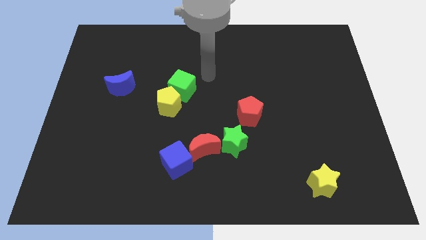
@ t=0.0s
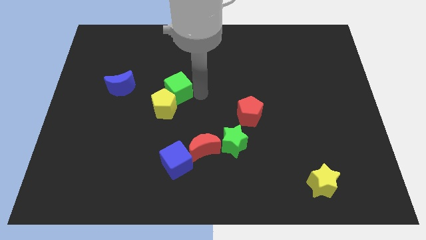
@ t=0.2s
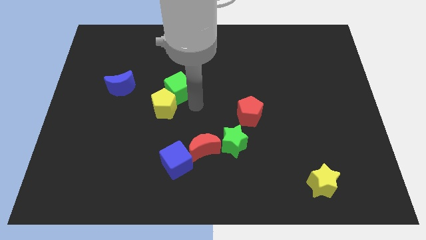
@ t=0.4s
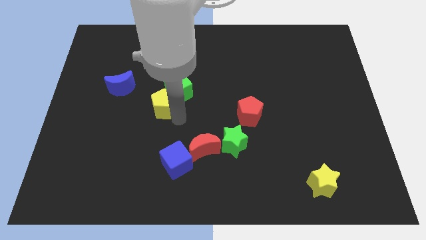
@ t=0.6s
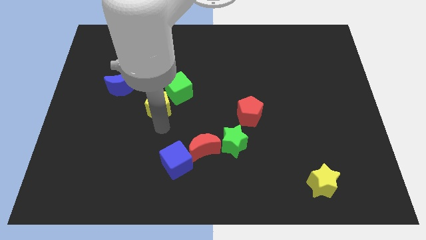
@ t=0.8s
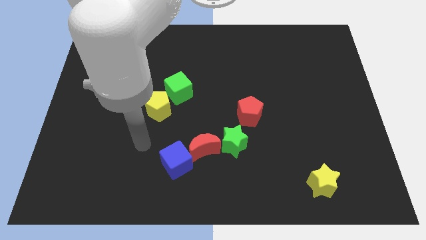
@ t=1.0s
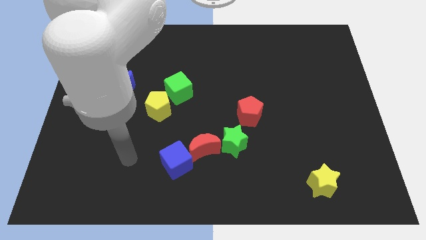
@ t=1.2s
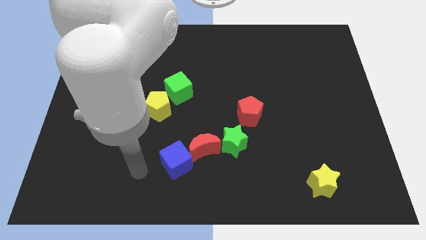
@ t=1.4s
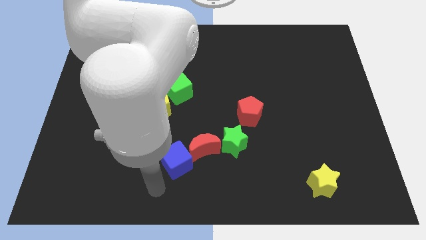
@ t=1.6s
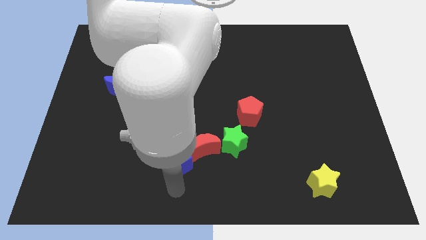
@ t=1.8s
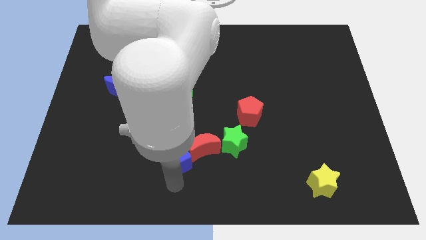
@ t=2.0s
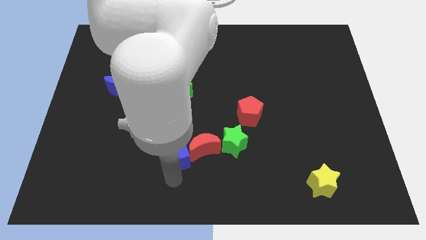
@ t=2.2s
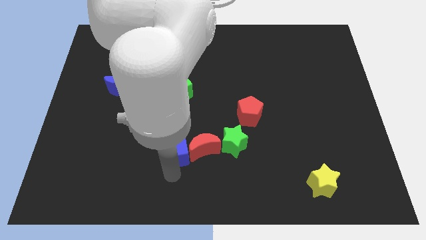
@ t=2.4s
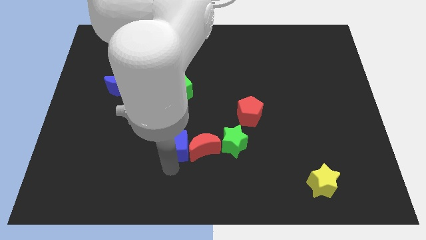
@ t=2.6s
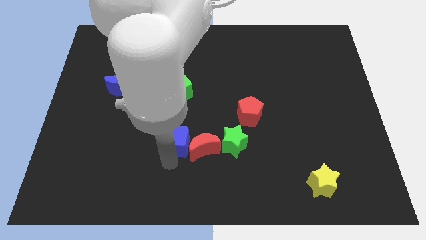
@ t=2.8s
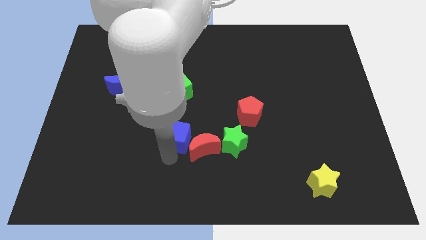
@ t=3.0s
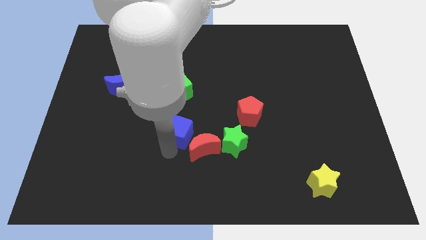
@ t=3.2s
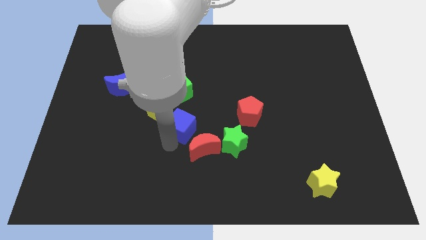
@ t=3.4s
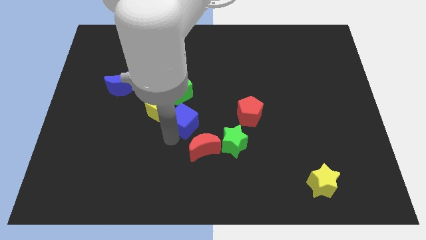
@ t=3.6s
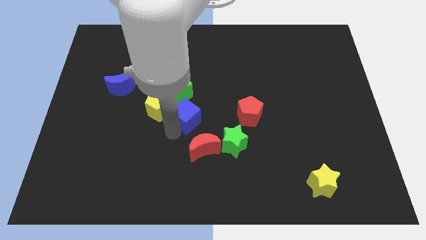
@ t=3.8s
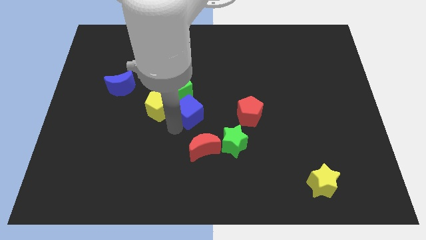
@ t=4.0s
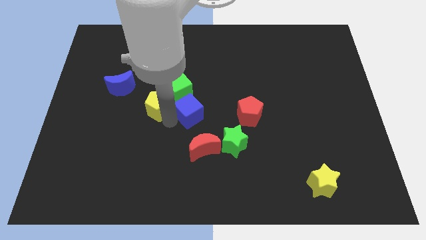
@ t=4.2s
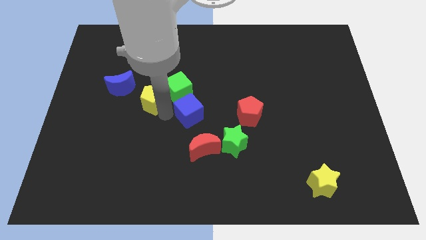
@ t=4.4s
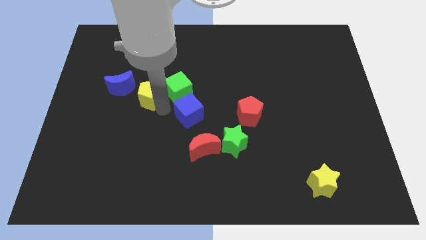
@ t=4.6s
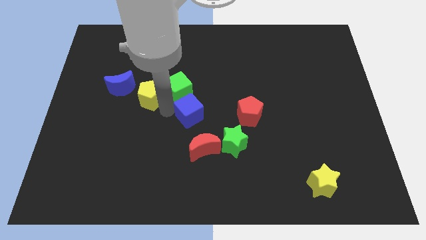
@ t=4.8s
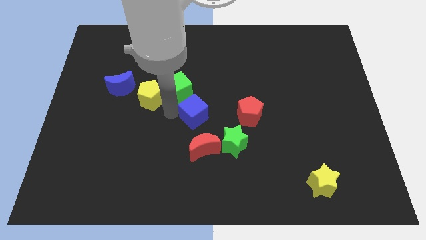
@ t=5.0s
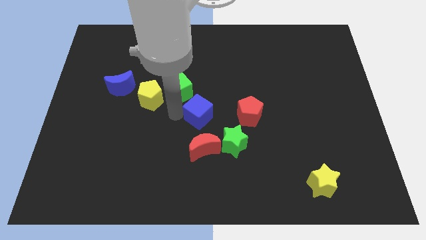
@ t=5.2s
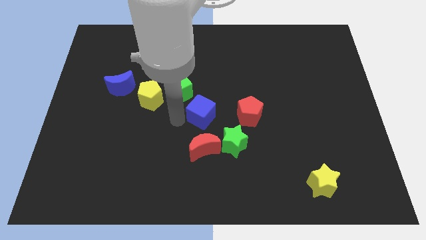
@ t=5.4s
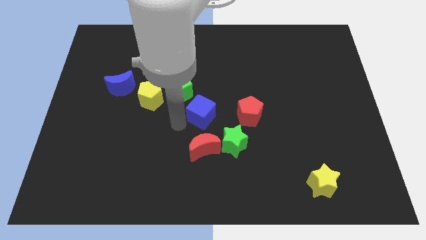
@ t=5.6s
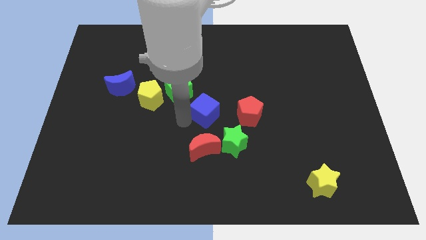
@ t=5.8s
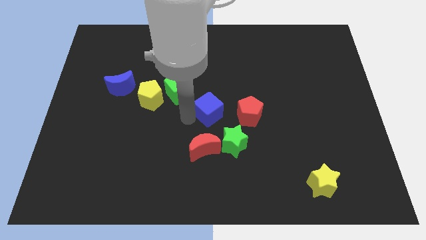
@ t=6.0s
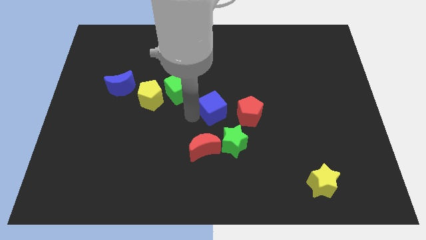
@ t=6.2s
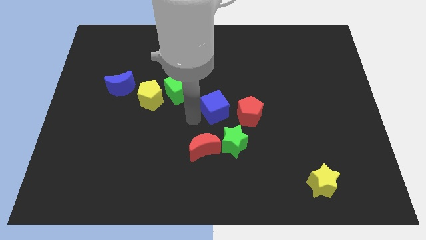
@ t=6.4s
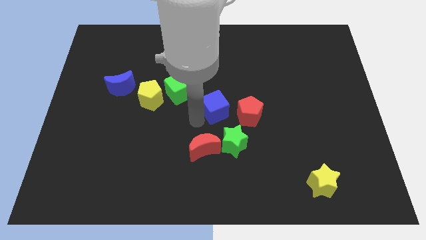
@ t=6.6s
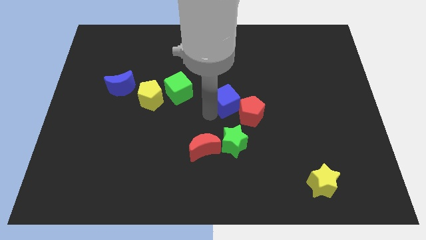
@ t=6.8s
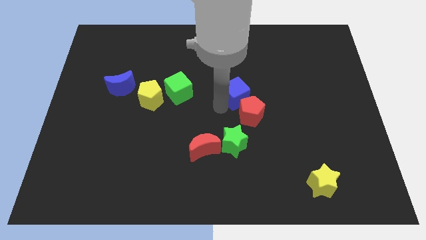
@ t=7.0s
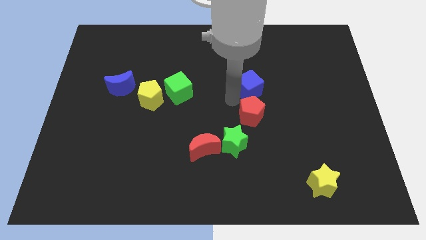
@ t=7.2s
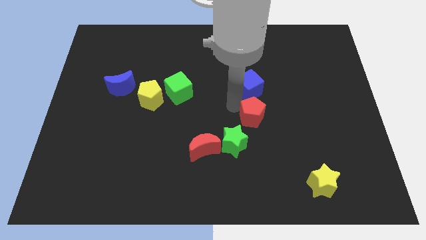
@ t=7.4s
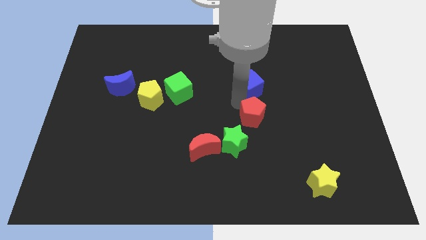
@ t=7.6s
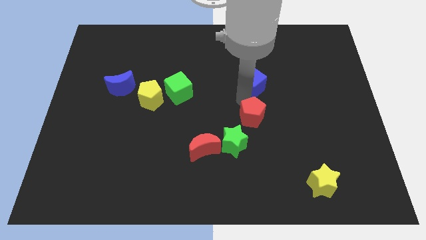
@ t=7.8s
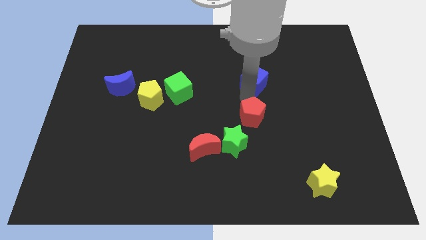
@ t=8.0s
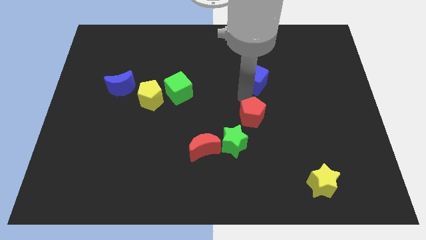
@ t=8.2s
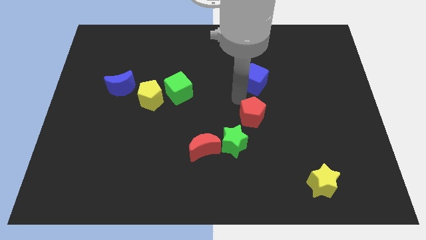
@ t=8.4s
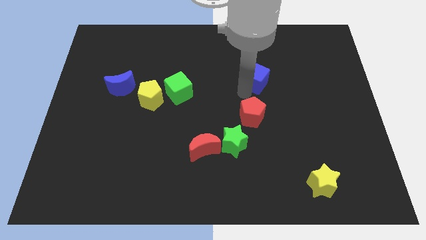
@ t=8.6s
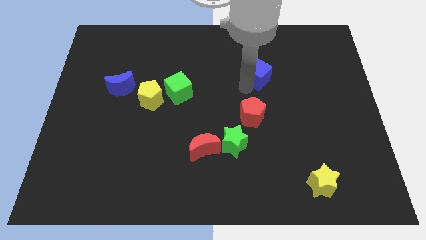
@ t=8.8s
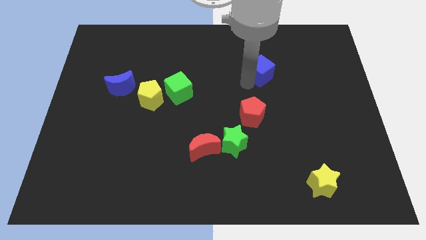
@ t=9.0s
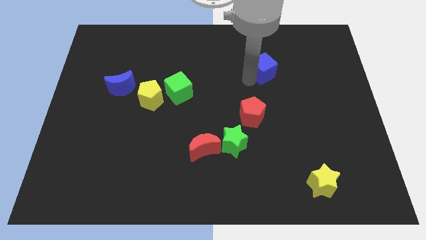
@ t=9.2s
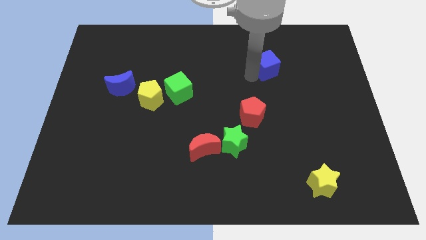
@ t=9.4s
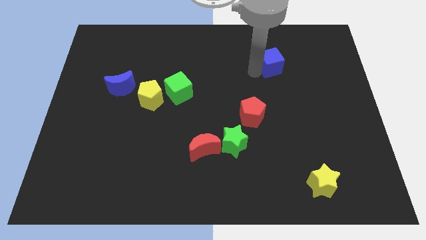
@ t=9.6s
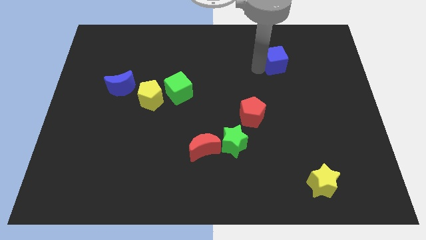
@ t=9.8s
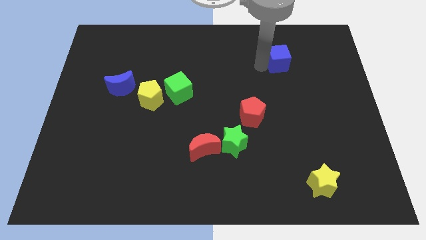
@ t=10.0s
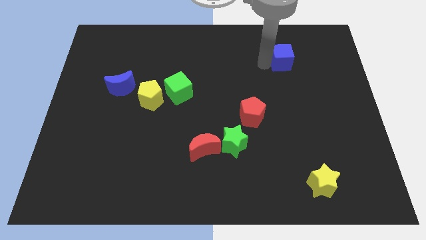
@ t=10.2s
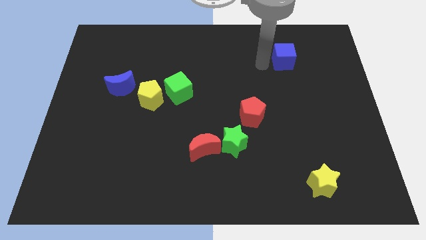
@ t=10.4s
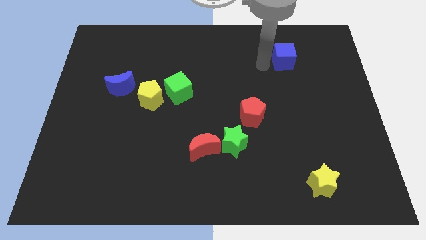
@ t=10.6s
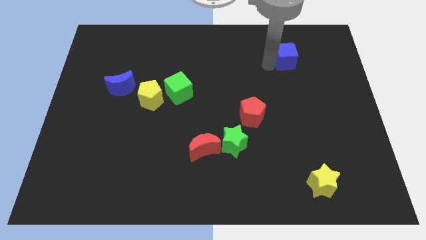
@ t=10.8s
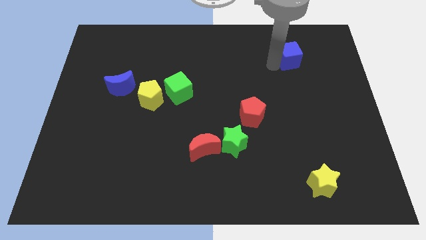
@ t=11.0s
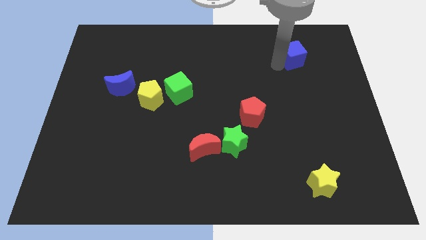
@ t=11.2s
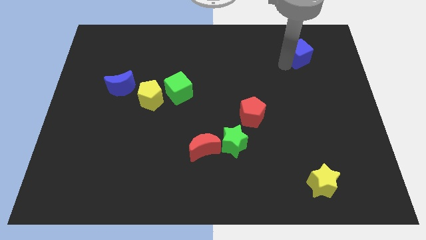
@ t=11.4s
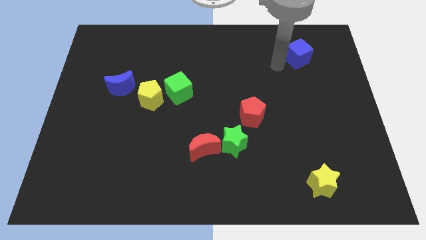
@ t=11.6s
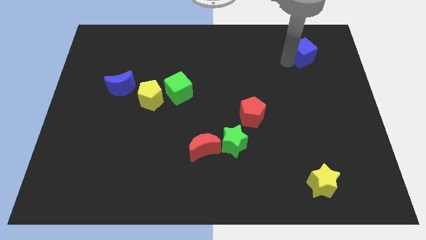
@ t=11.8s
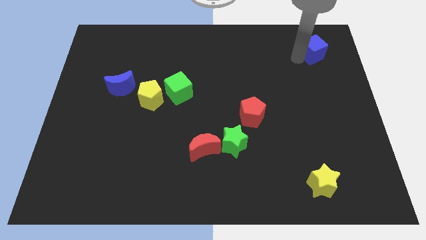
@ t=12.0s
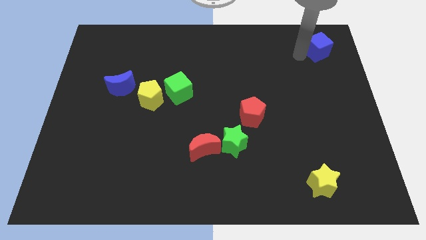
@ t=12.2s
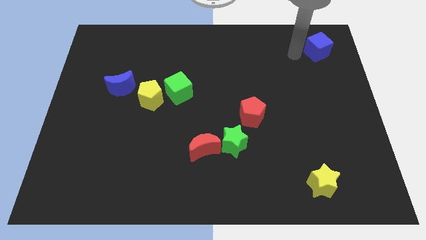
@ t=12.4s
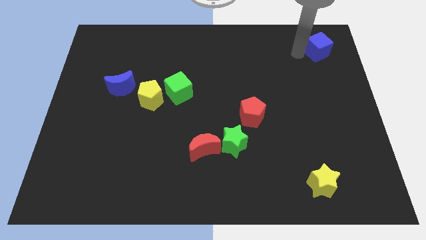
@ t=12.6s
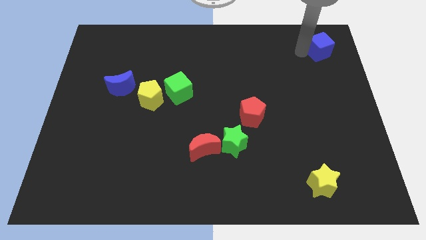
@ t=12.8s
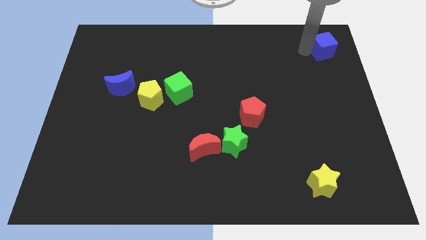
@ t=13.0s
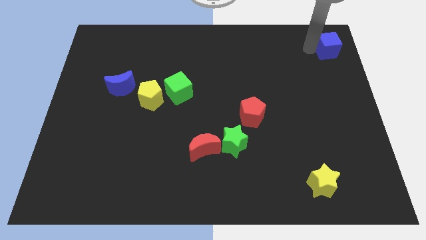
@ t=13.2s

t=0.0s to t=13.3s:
move the blue cube to the top right
